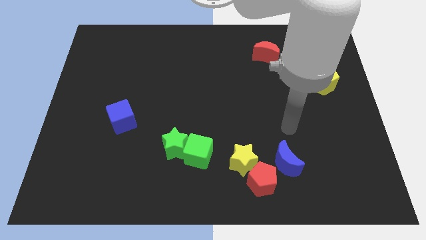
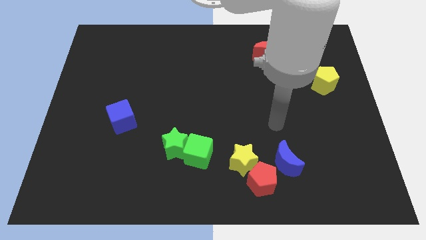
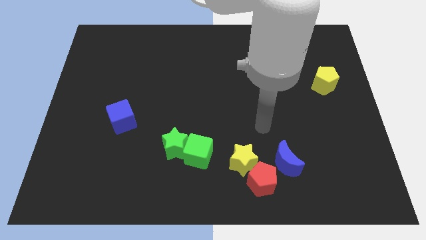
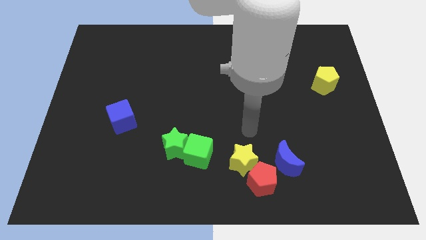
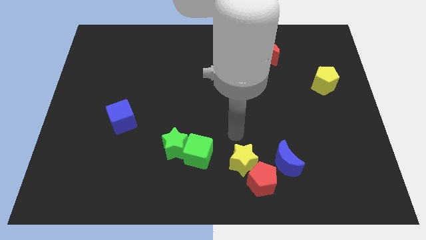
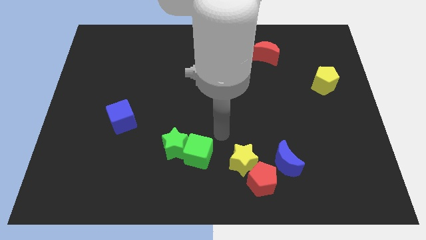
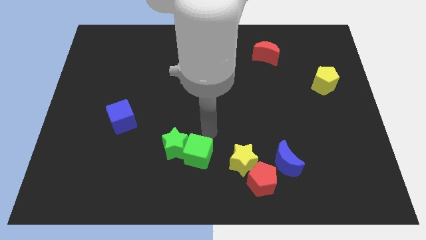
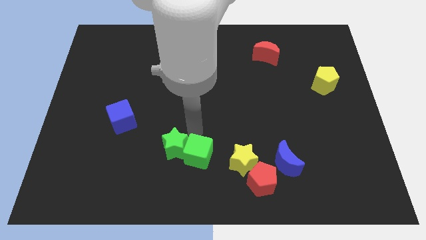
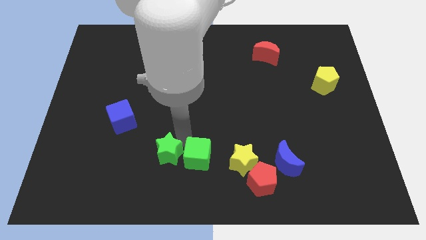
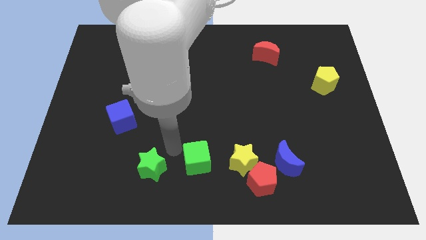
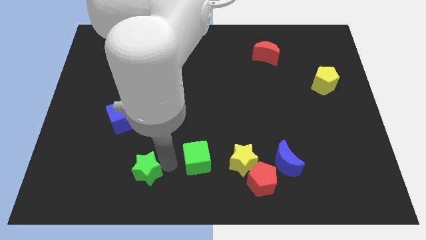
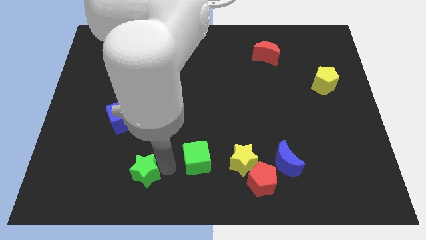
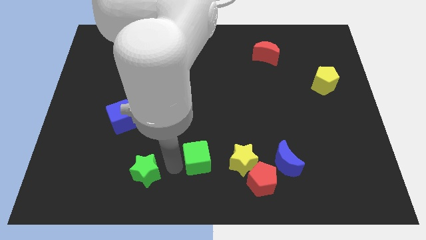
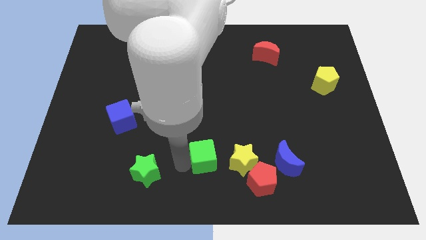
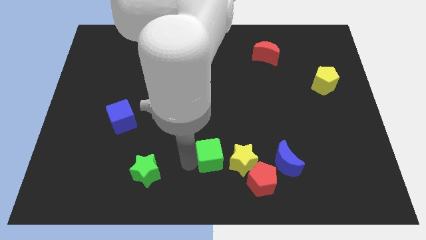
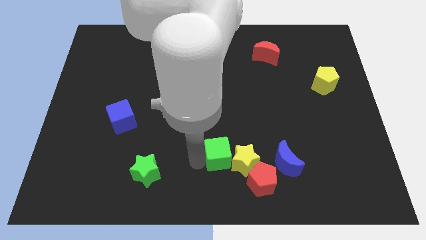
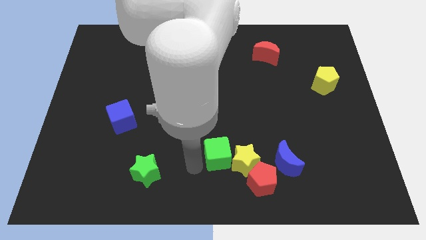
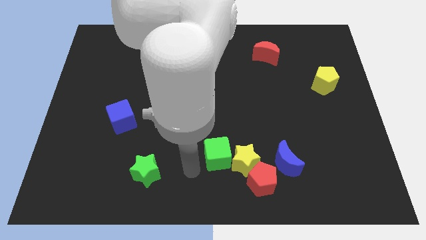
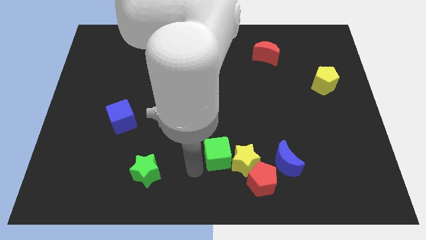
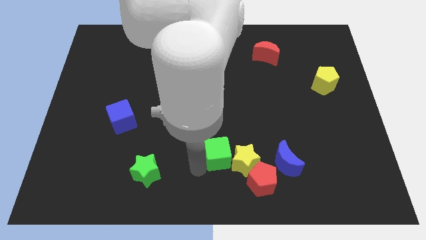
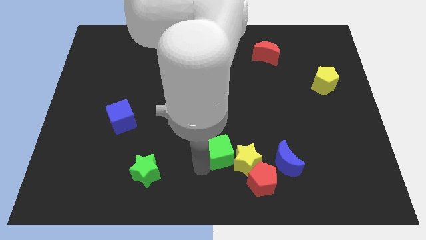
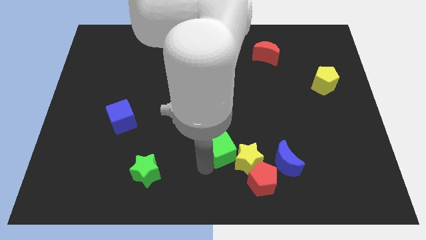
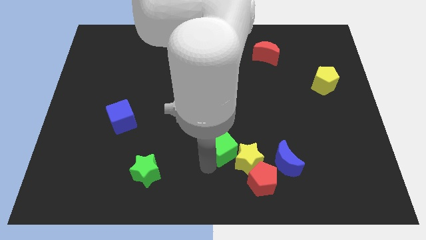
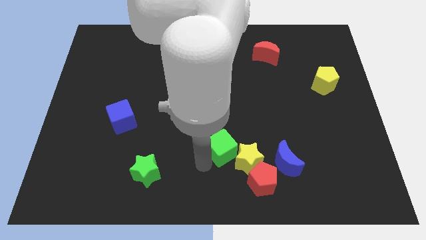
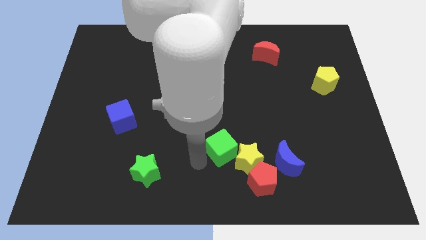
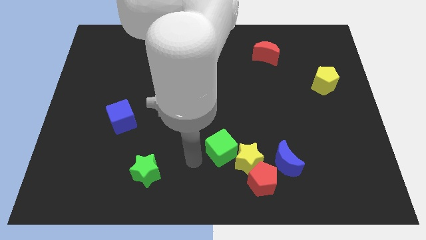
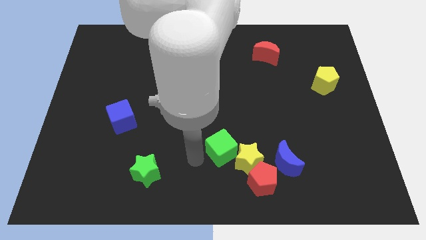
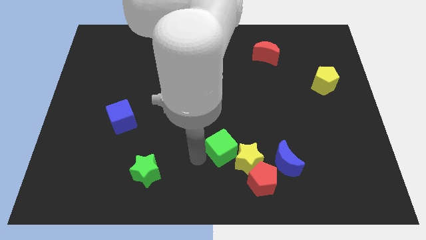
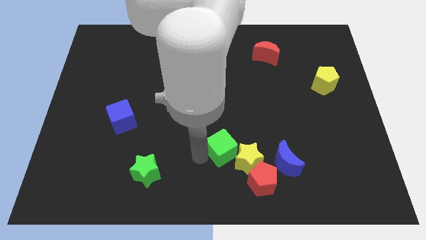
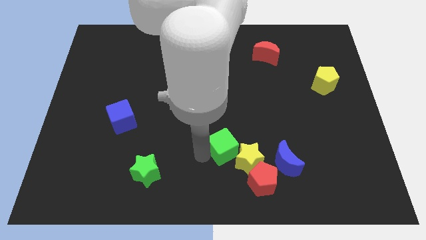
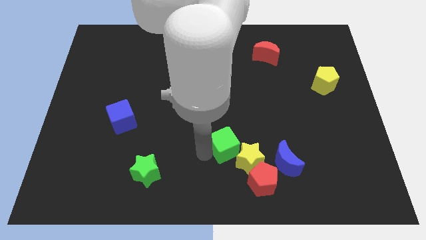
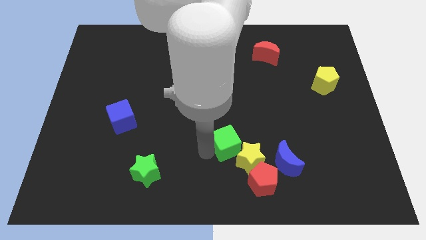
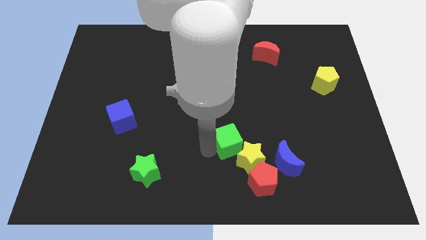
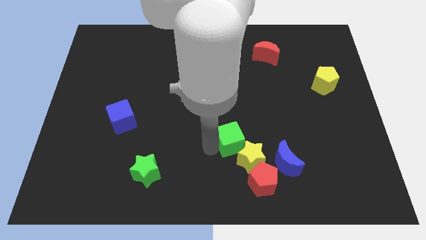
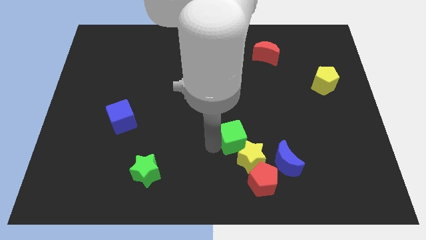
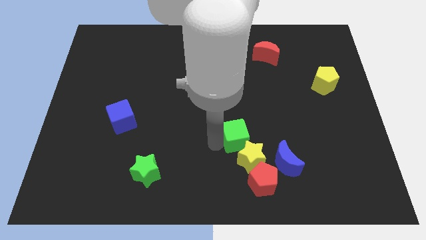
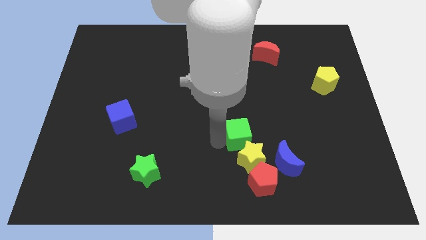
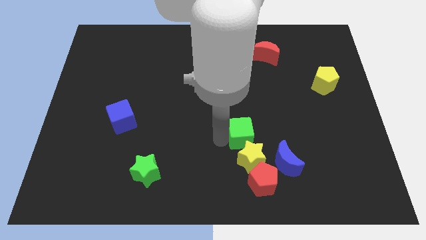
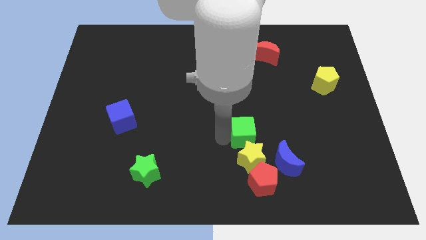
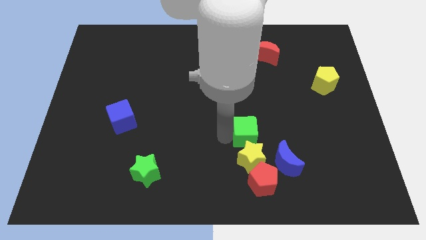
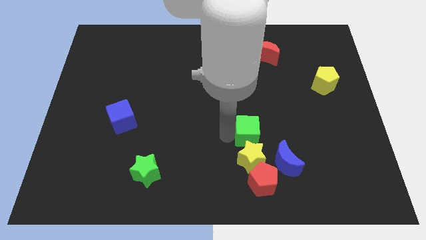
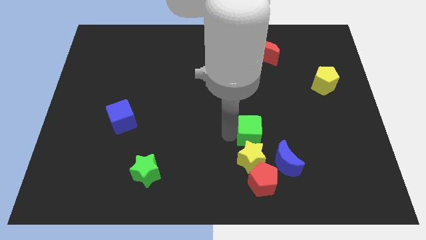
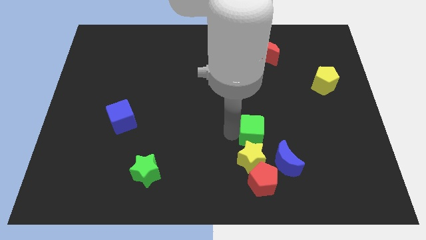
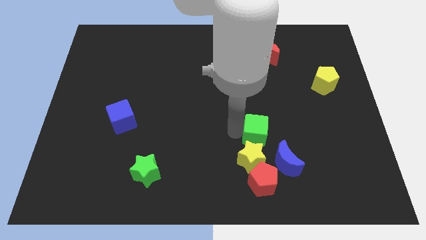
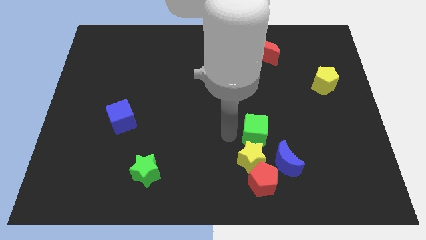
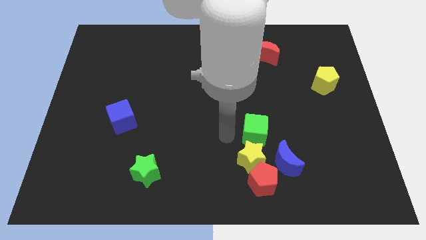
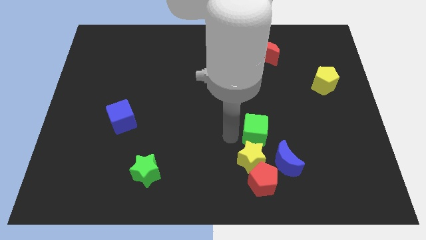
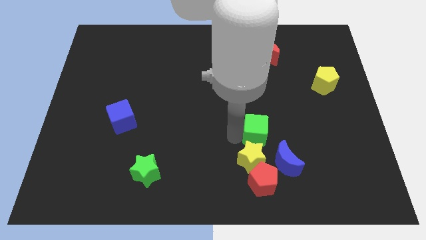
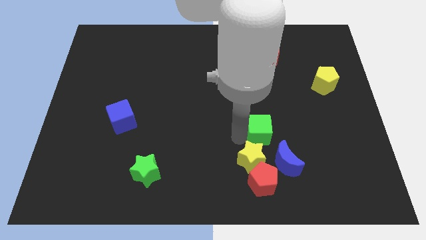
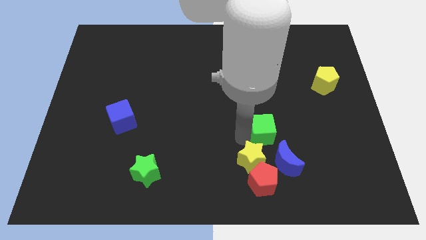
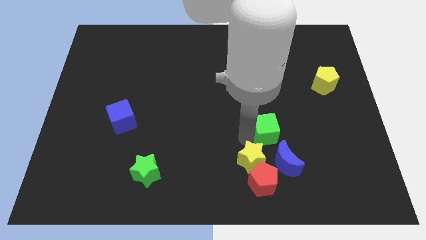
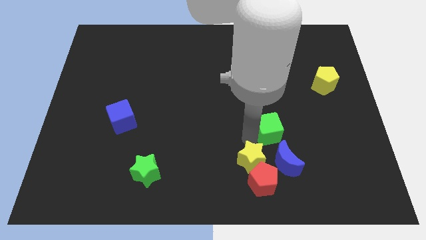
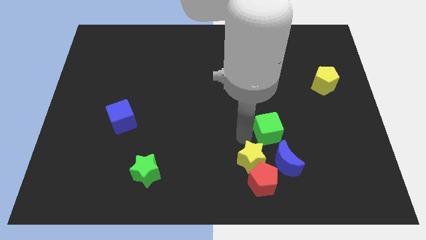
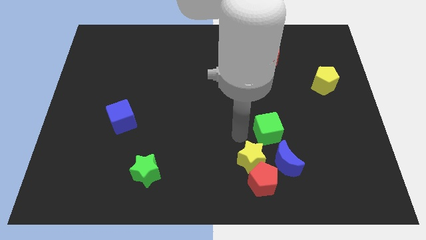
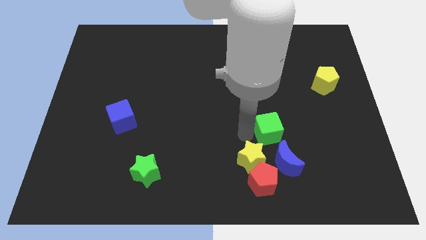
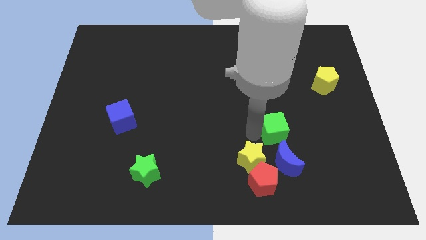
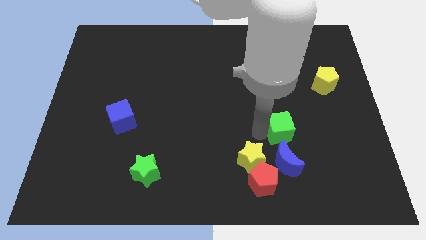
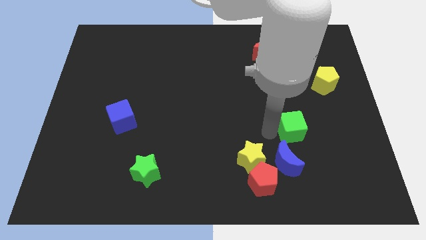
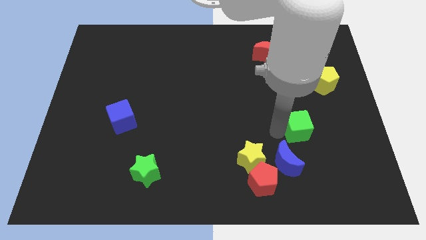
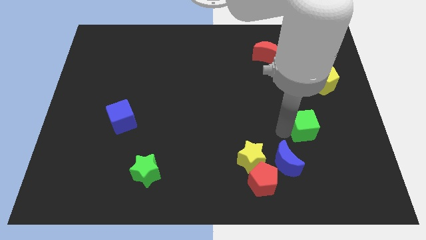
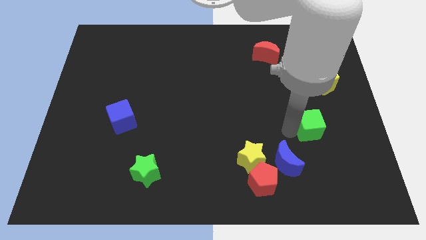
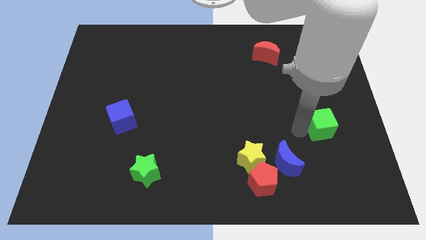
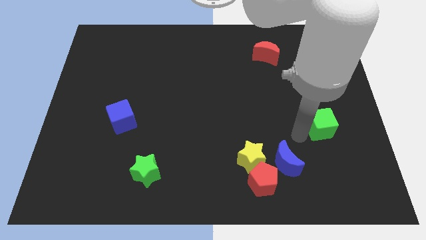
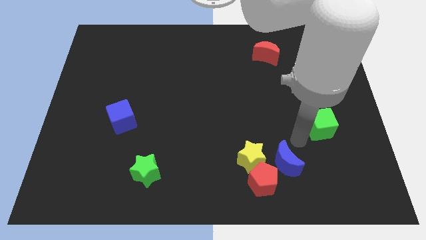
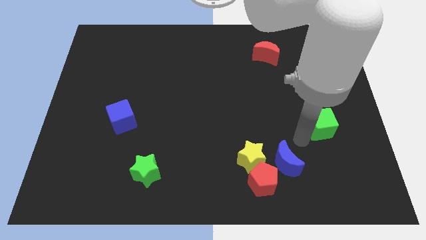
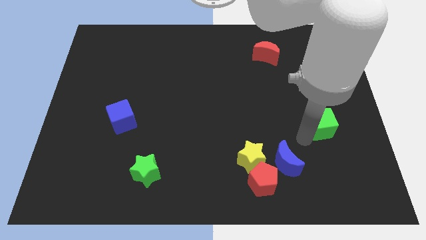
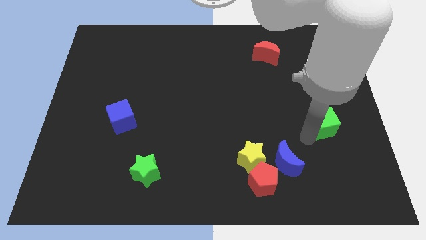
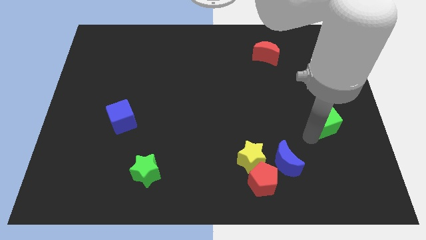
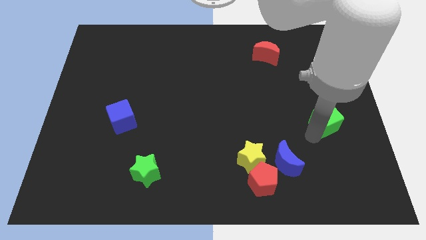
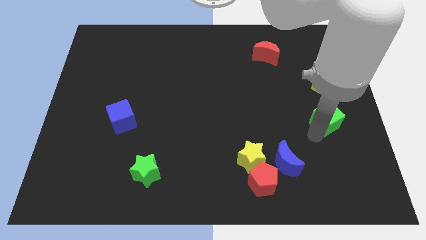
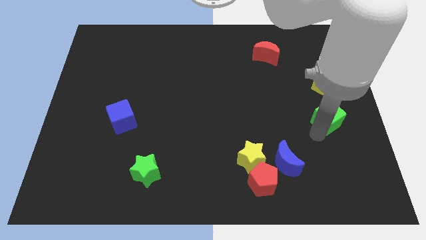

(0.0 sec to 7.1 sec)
put the green cube to the center right
